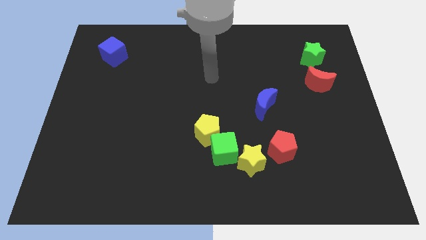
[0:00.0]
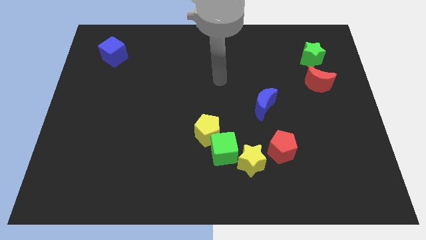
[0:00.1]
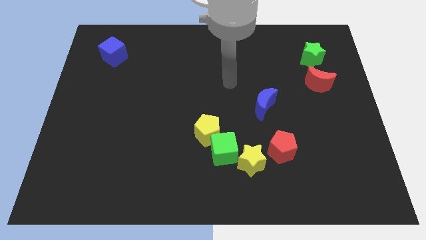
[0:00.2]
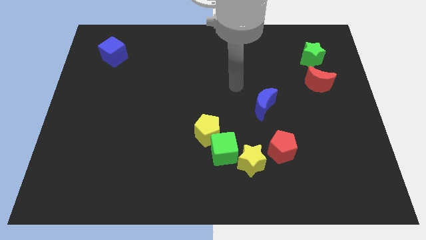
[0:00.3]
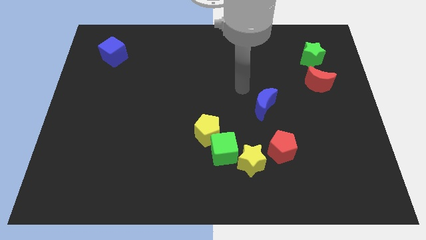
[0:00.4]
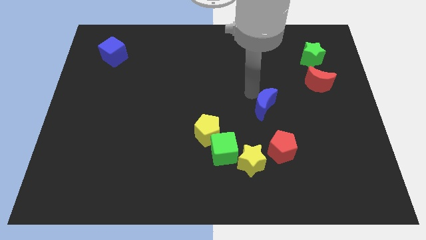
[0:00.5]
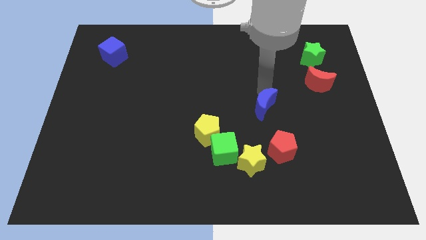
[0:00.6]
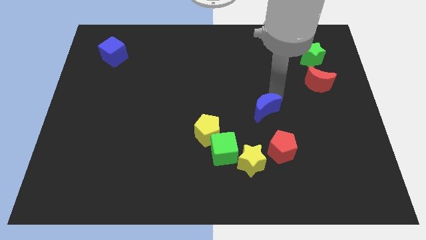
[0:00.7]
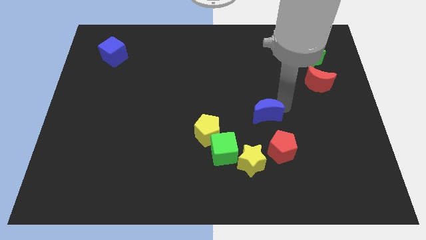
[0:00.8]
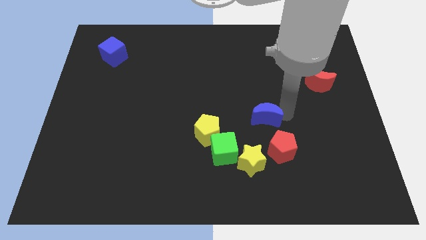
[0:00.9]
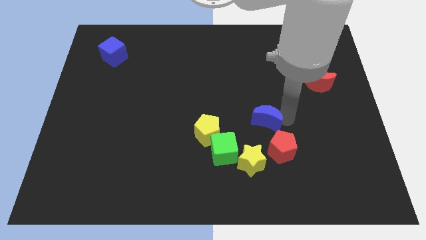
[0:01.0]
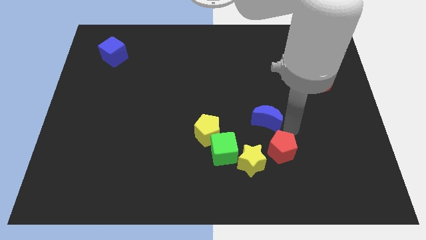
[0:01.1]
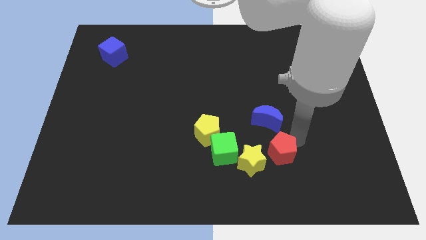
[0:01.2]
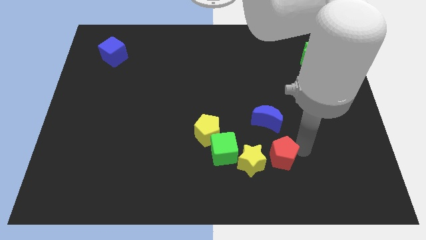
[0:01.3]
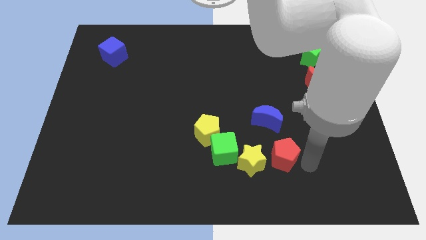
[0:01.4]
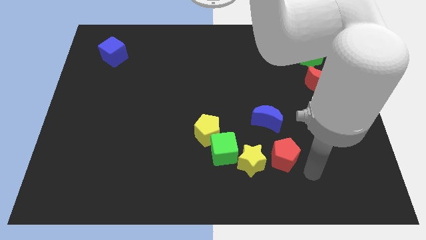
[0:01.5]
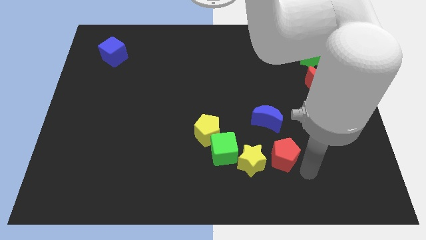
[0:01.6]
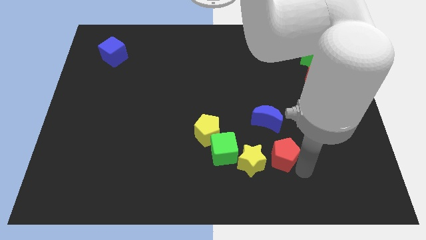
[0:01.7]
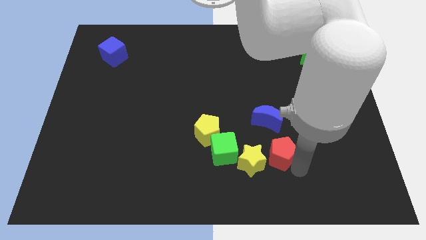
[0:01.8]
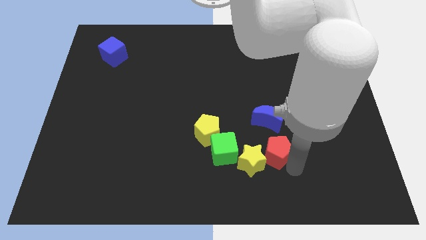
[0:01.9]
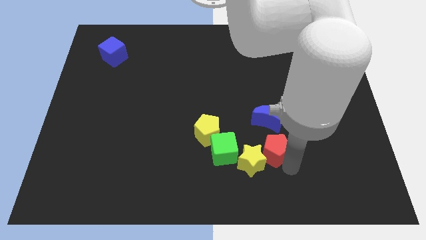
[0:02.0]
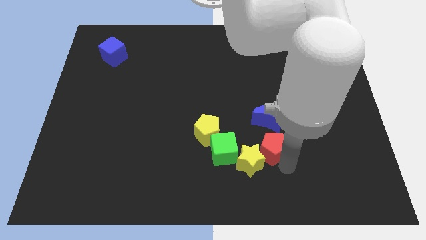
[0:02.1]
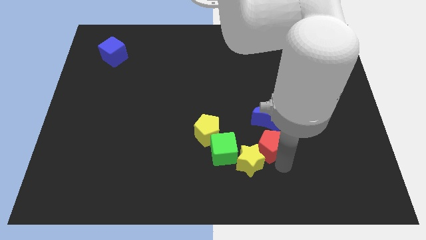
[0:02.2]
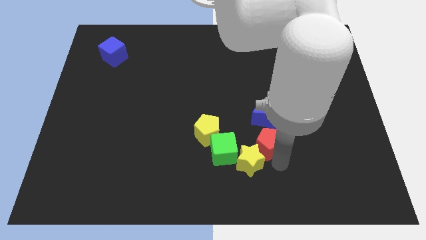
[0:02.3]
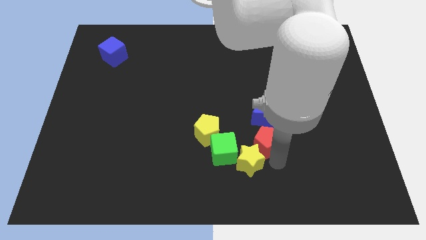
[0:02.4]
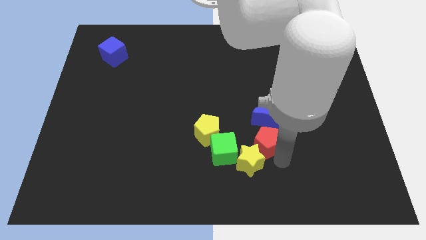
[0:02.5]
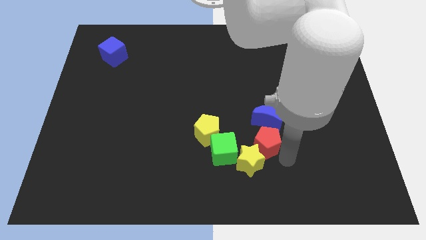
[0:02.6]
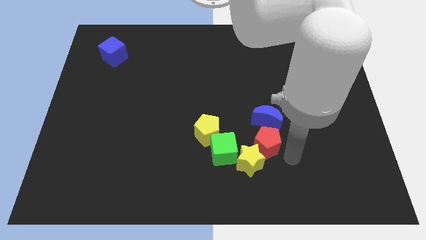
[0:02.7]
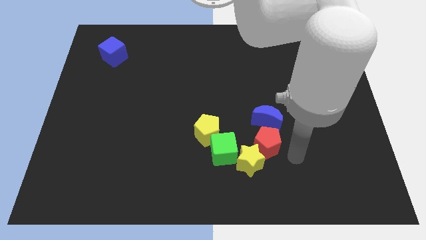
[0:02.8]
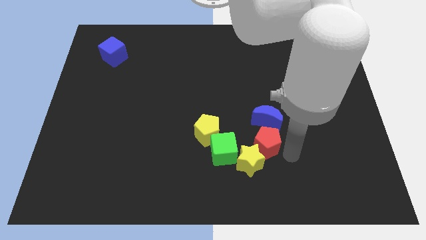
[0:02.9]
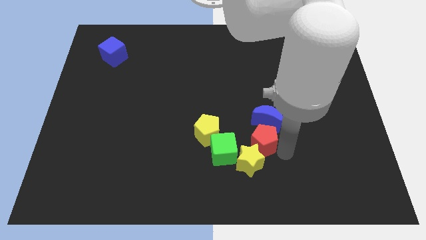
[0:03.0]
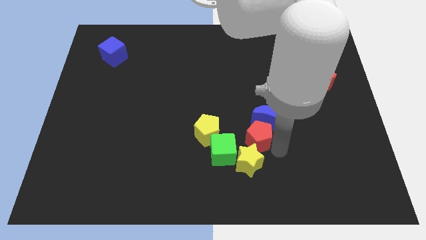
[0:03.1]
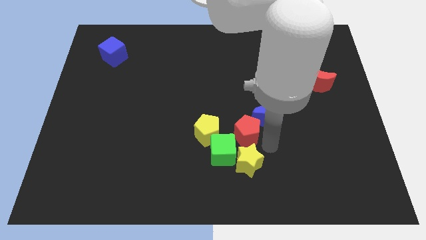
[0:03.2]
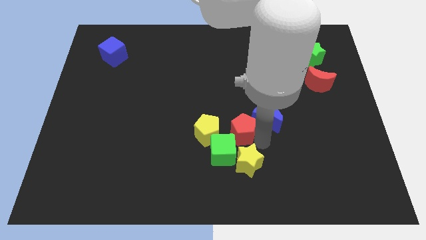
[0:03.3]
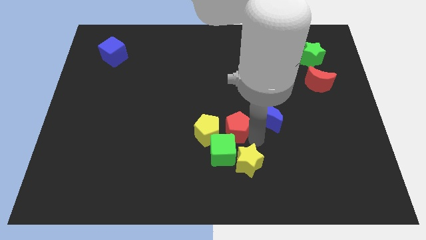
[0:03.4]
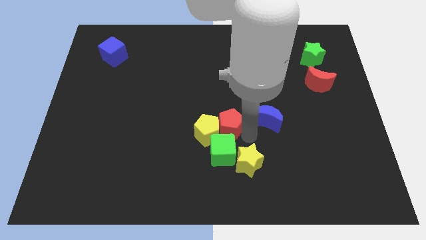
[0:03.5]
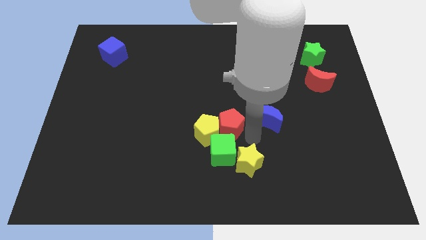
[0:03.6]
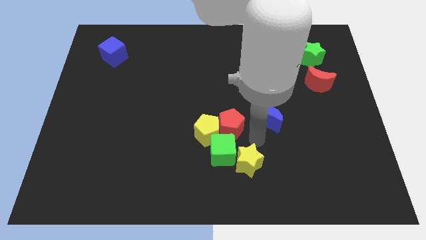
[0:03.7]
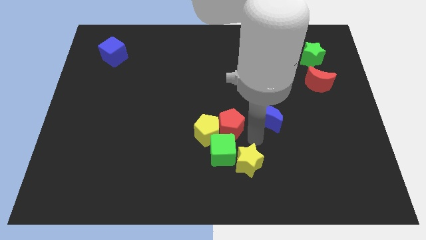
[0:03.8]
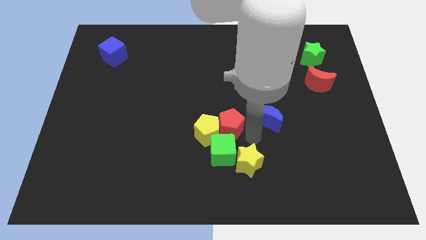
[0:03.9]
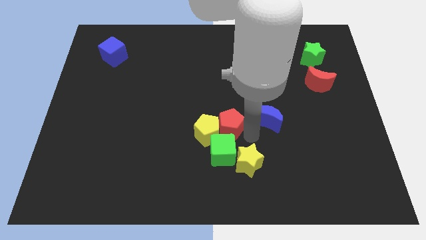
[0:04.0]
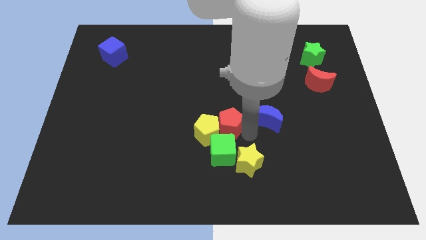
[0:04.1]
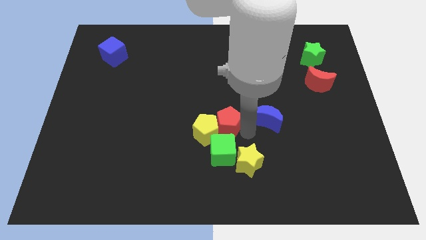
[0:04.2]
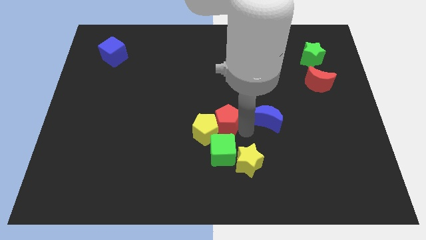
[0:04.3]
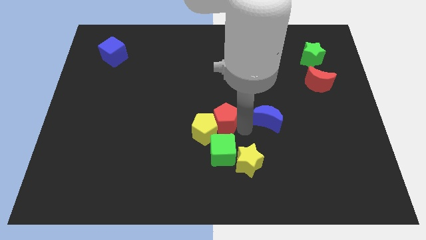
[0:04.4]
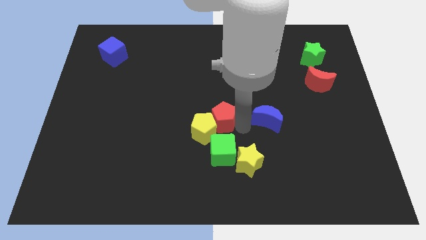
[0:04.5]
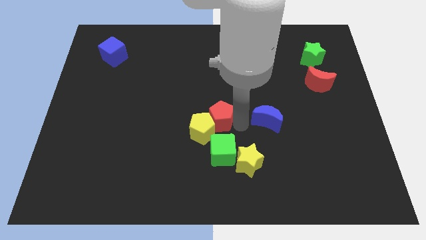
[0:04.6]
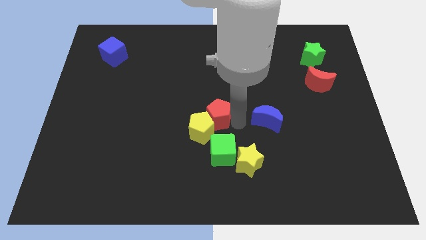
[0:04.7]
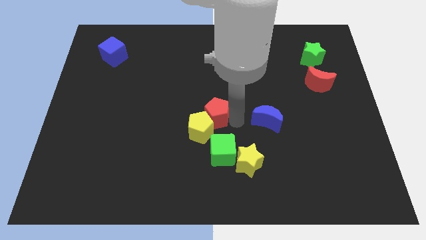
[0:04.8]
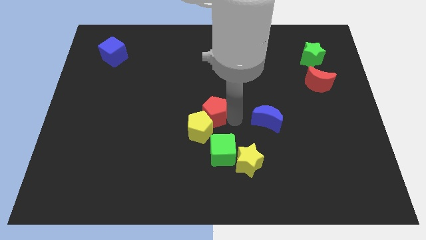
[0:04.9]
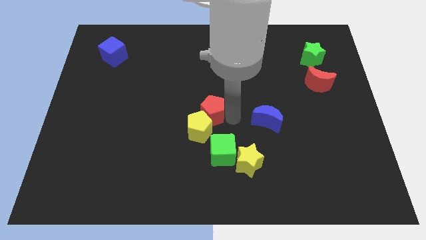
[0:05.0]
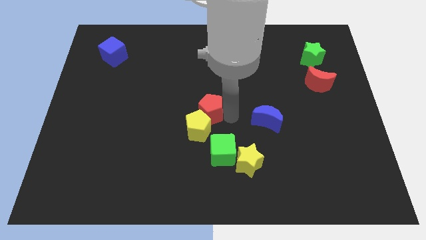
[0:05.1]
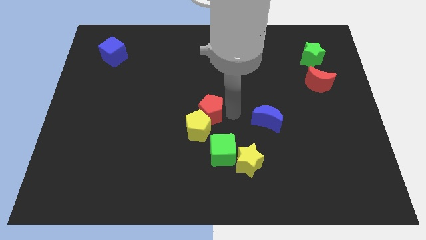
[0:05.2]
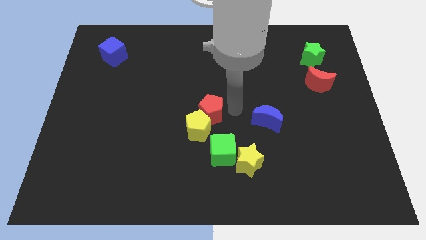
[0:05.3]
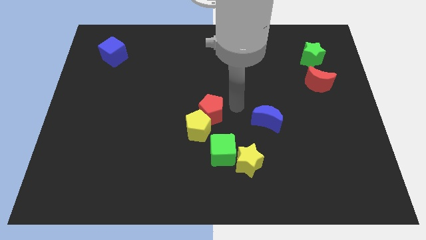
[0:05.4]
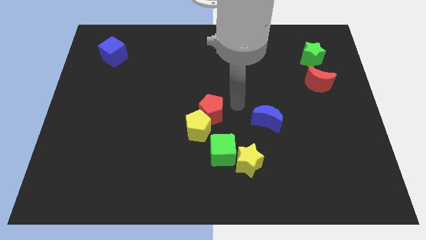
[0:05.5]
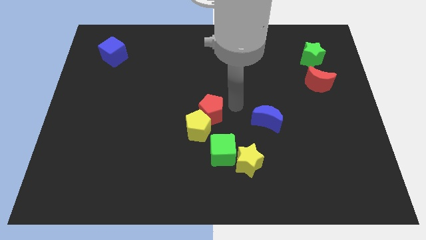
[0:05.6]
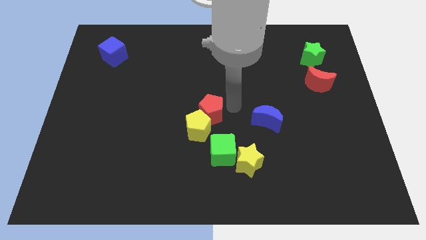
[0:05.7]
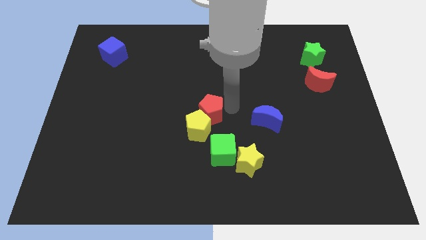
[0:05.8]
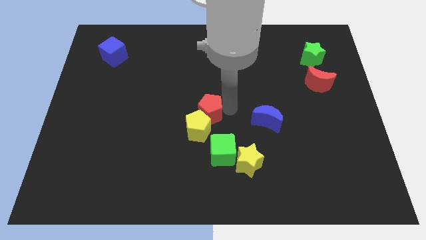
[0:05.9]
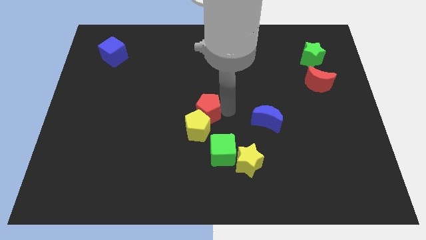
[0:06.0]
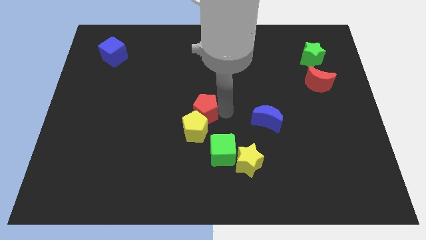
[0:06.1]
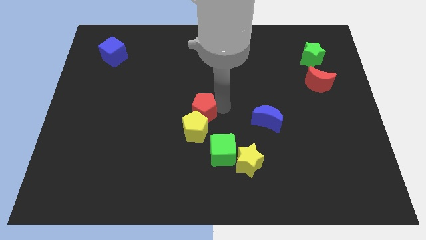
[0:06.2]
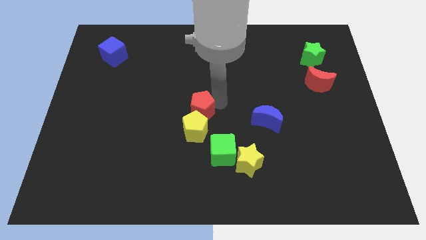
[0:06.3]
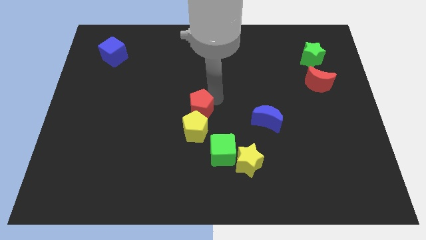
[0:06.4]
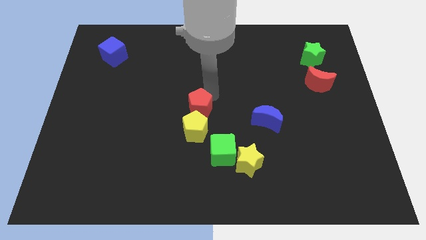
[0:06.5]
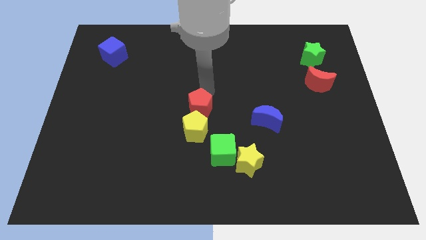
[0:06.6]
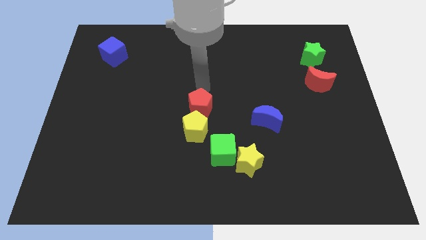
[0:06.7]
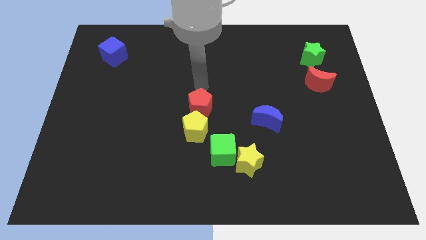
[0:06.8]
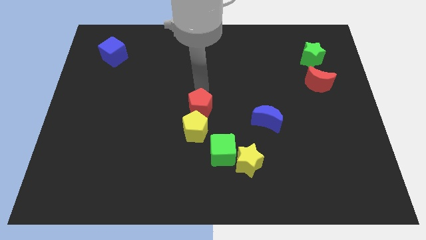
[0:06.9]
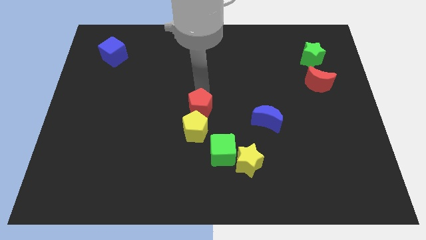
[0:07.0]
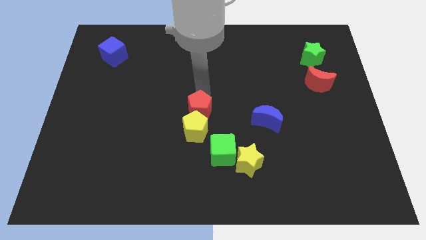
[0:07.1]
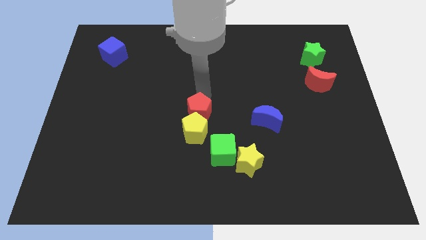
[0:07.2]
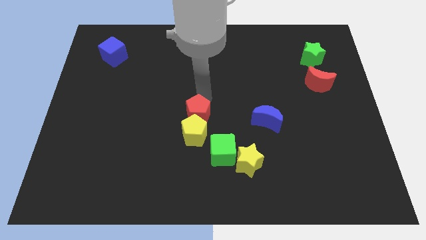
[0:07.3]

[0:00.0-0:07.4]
put the red pentagon diagonally up and to the left of the green cube
